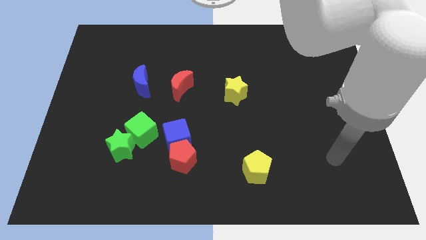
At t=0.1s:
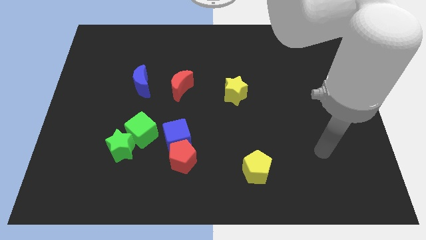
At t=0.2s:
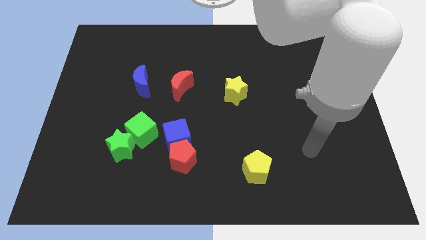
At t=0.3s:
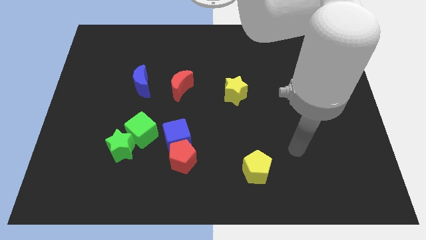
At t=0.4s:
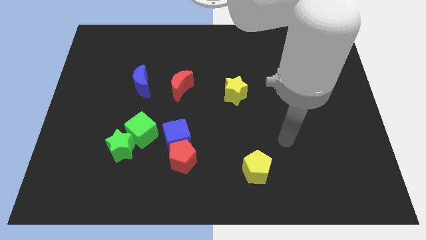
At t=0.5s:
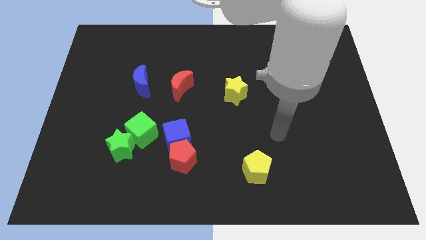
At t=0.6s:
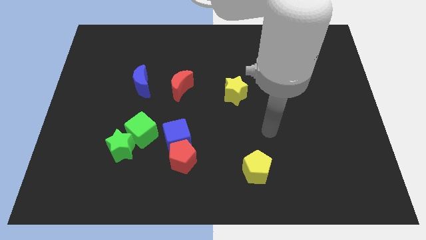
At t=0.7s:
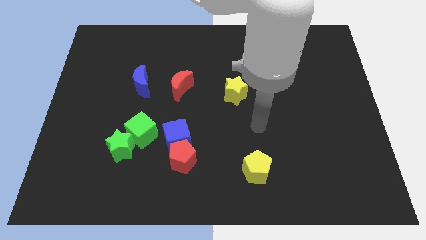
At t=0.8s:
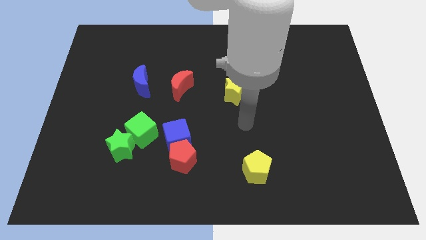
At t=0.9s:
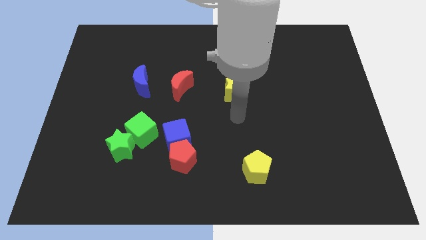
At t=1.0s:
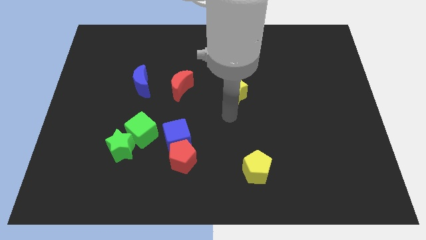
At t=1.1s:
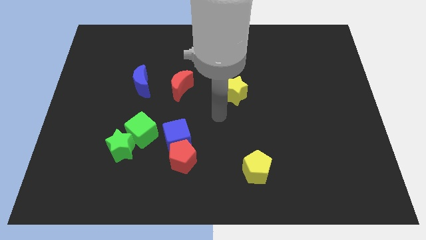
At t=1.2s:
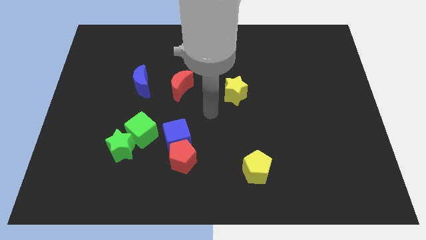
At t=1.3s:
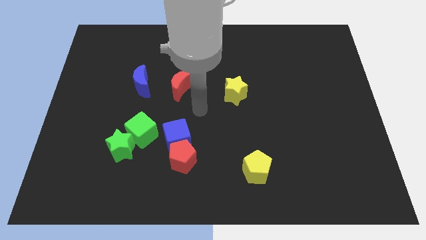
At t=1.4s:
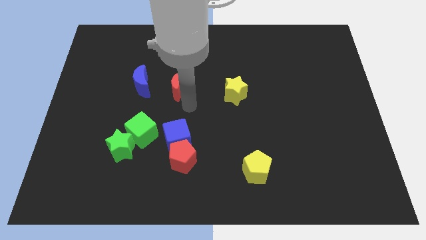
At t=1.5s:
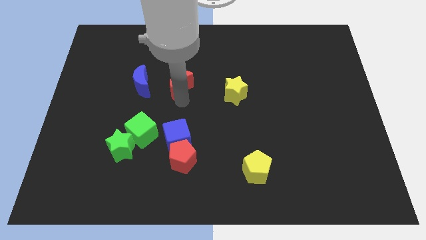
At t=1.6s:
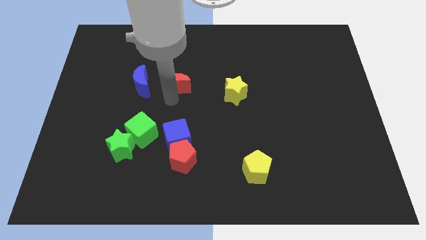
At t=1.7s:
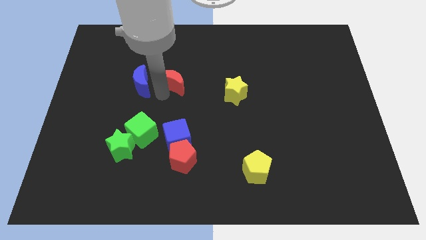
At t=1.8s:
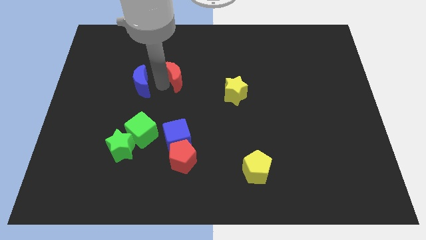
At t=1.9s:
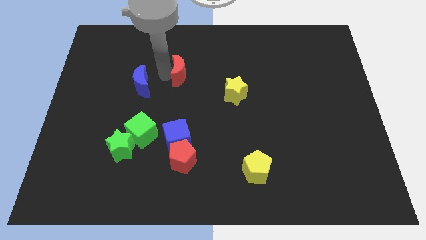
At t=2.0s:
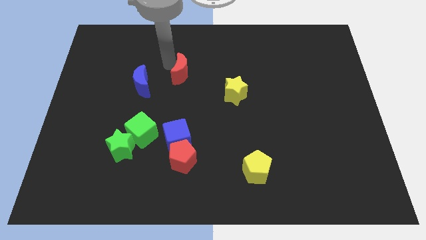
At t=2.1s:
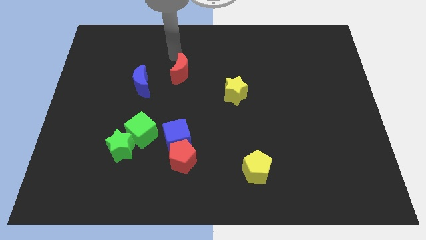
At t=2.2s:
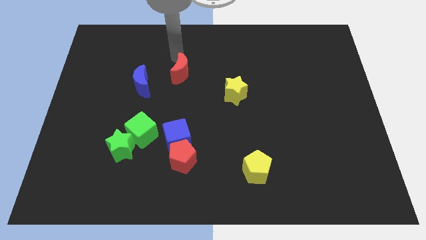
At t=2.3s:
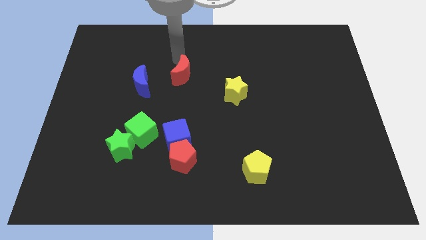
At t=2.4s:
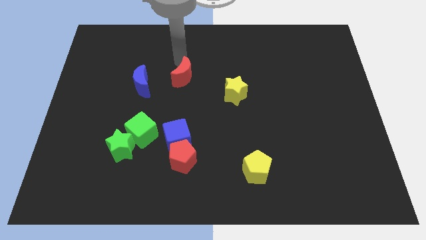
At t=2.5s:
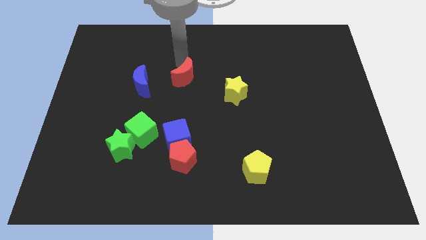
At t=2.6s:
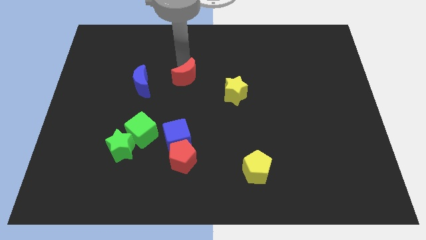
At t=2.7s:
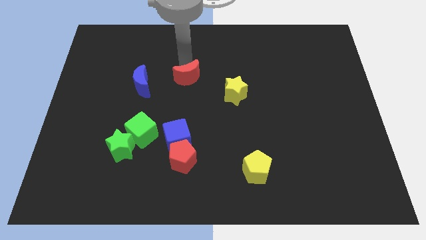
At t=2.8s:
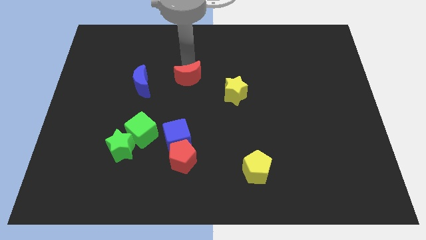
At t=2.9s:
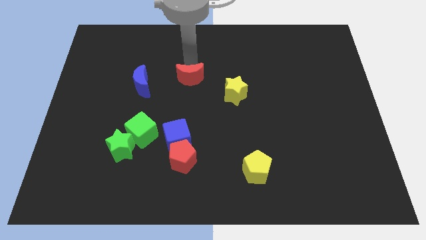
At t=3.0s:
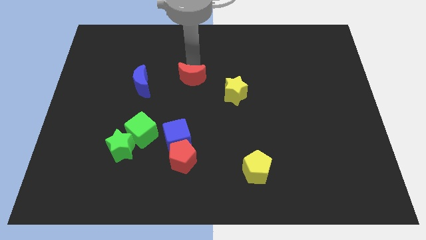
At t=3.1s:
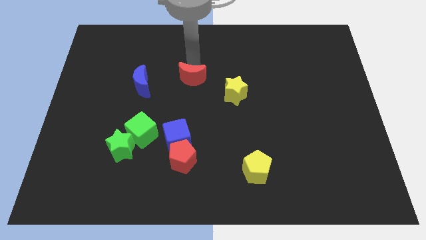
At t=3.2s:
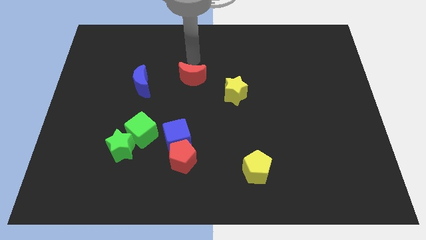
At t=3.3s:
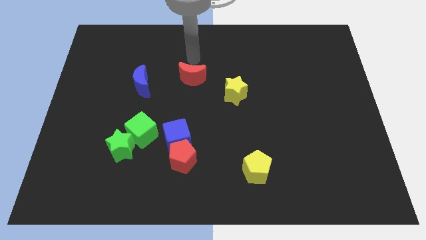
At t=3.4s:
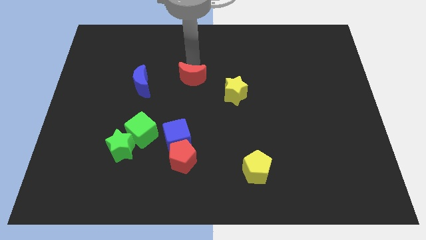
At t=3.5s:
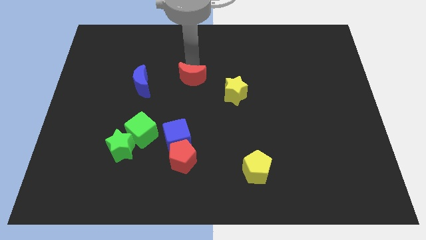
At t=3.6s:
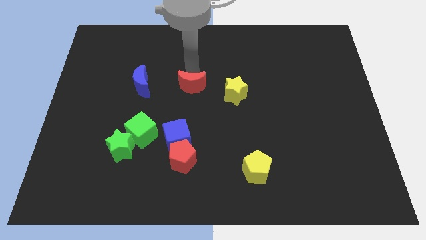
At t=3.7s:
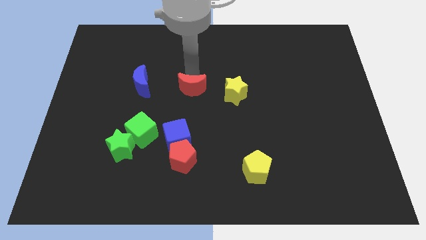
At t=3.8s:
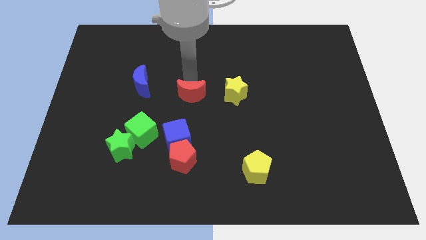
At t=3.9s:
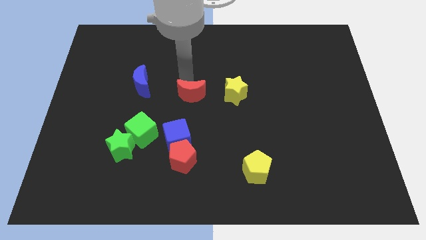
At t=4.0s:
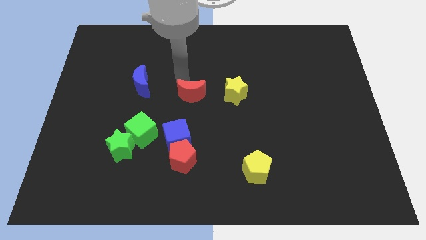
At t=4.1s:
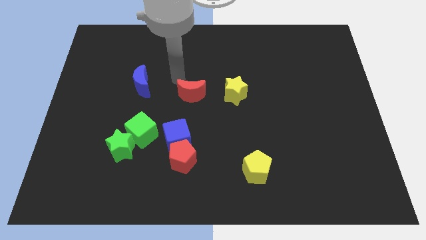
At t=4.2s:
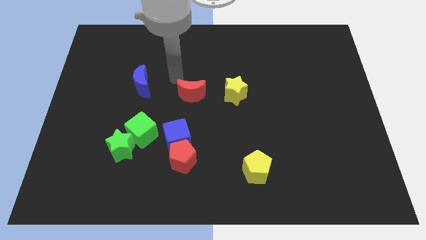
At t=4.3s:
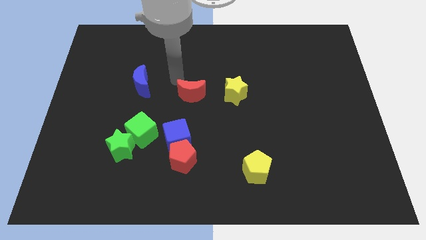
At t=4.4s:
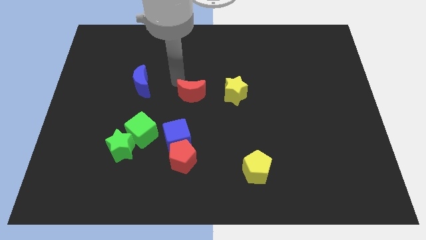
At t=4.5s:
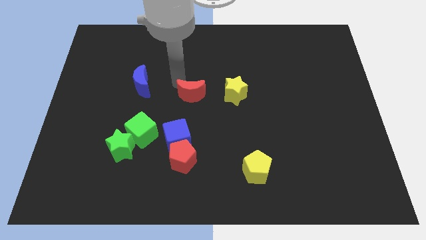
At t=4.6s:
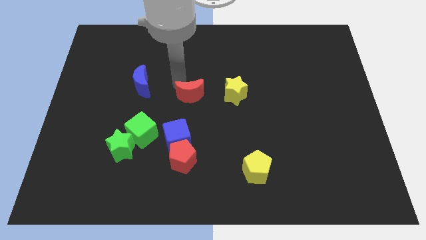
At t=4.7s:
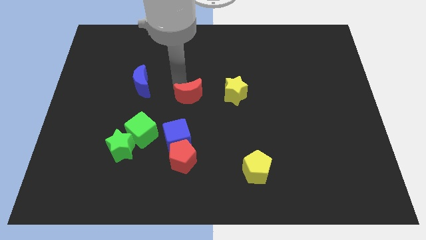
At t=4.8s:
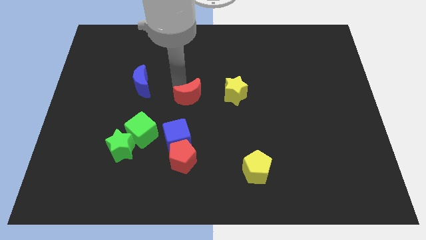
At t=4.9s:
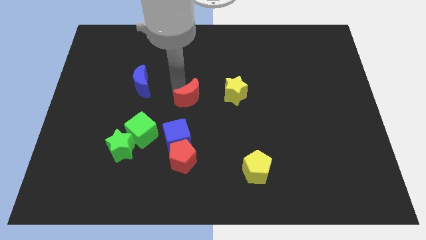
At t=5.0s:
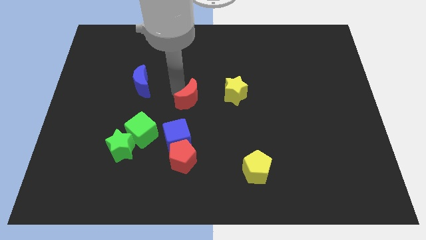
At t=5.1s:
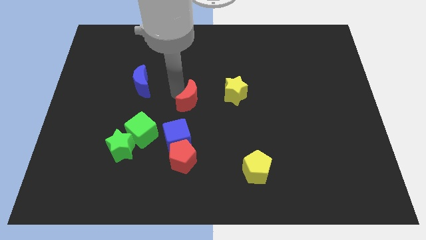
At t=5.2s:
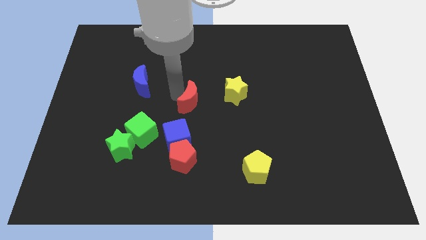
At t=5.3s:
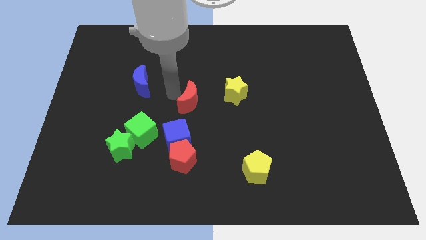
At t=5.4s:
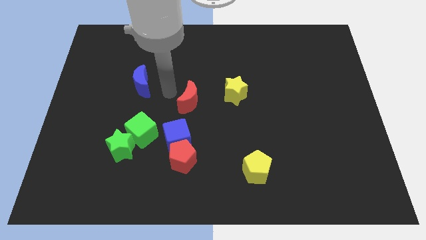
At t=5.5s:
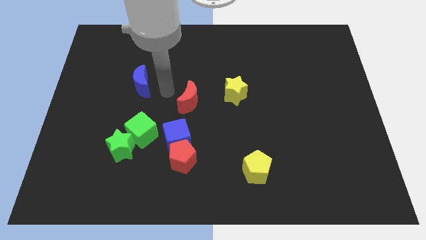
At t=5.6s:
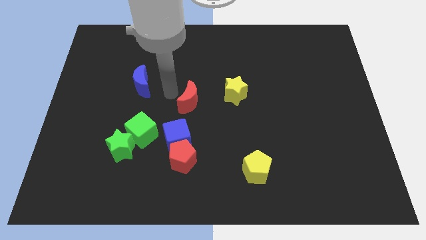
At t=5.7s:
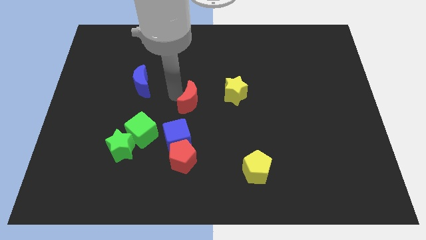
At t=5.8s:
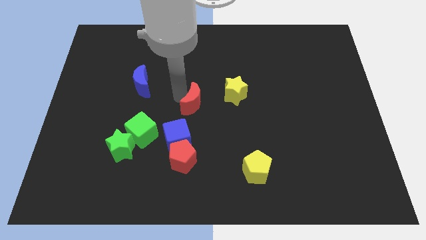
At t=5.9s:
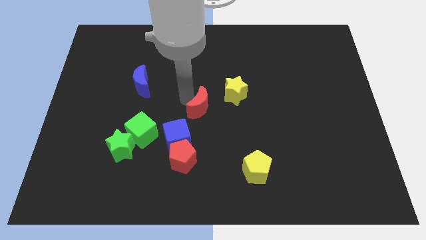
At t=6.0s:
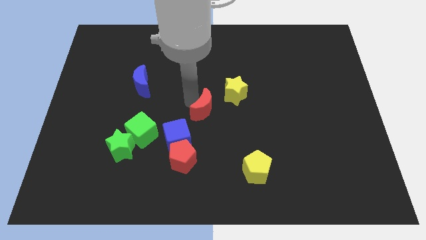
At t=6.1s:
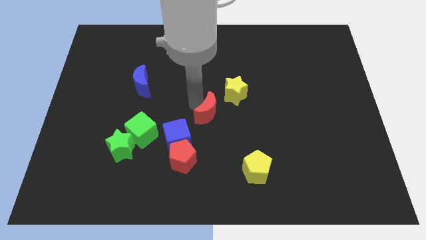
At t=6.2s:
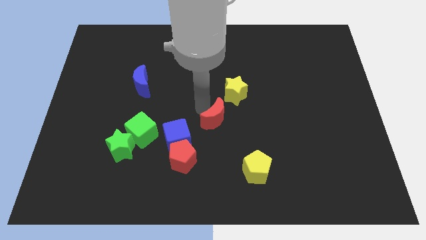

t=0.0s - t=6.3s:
move the red moon to the bottom of the yellow star

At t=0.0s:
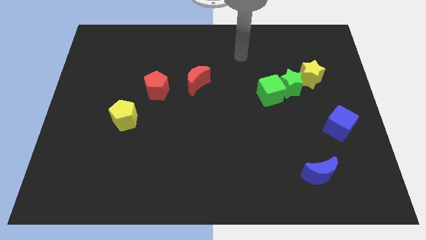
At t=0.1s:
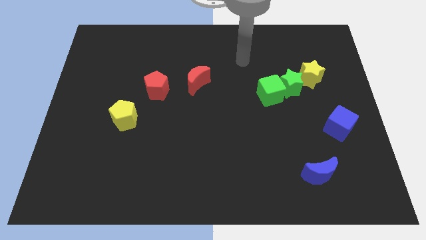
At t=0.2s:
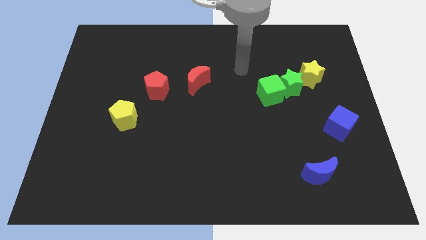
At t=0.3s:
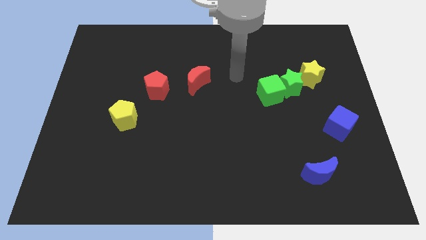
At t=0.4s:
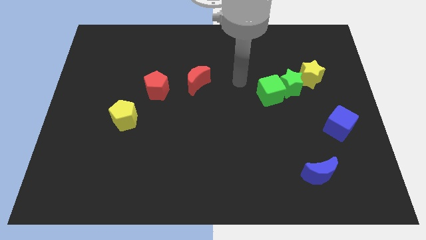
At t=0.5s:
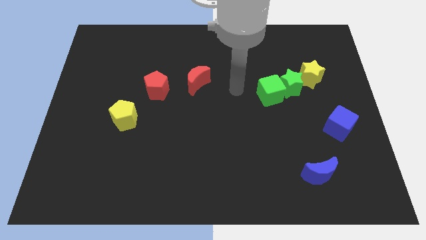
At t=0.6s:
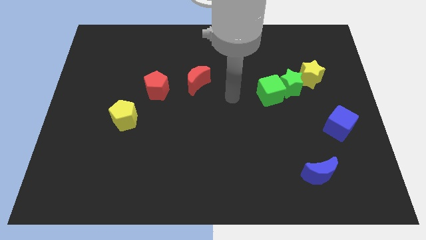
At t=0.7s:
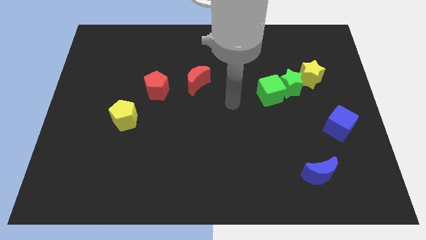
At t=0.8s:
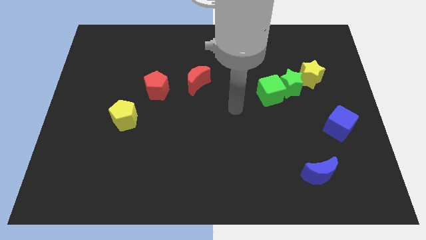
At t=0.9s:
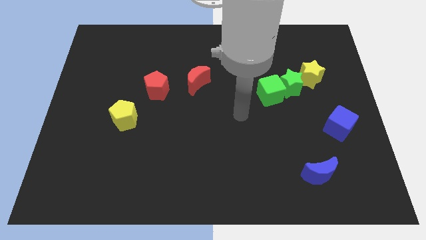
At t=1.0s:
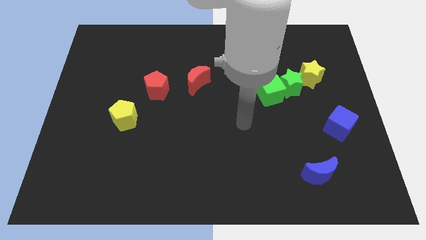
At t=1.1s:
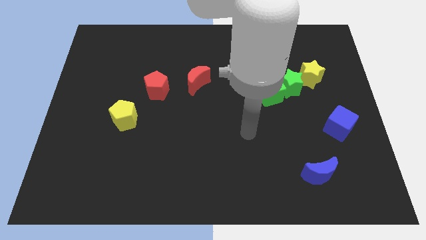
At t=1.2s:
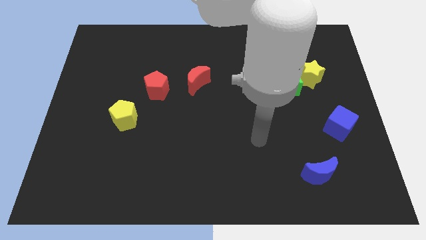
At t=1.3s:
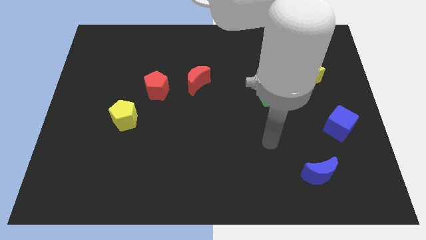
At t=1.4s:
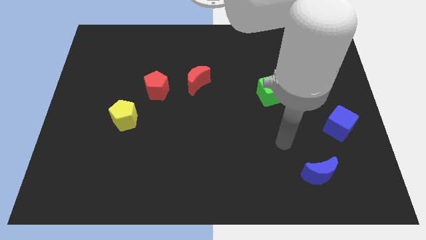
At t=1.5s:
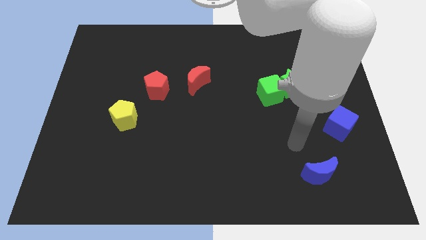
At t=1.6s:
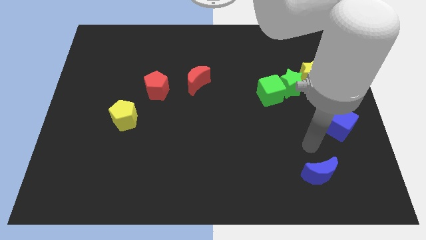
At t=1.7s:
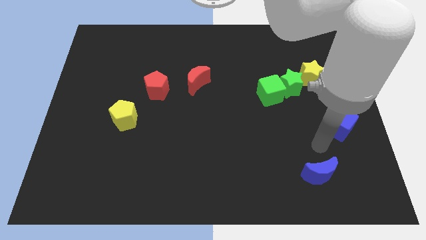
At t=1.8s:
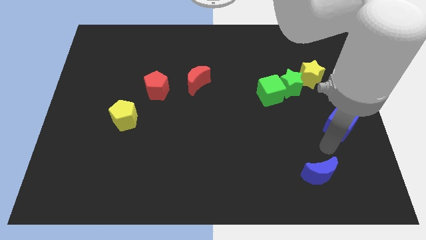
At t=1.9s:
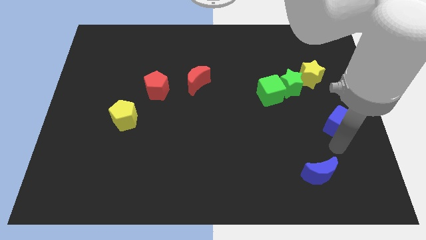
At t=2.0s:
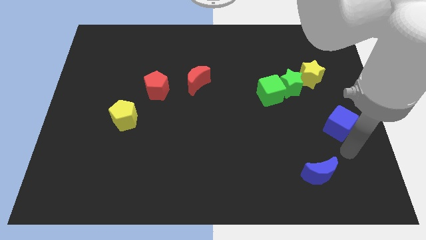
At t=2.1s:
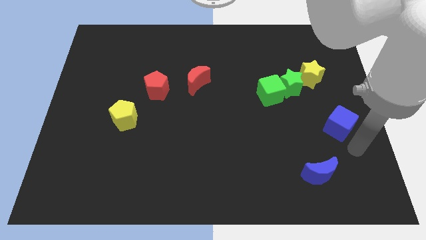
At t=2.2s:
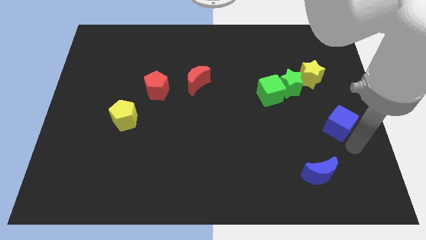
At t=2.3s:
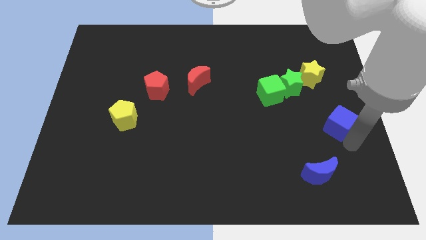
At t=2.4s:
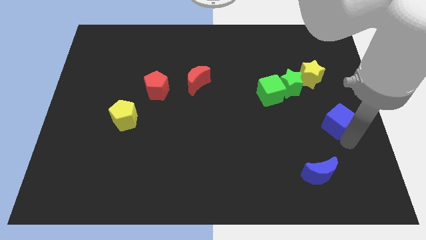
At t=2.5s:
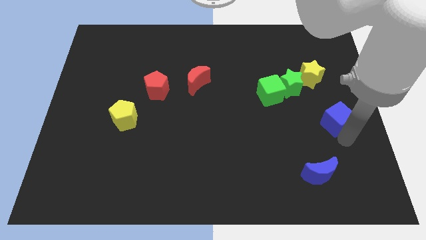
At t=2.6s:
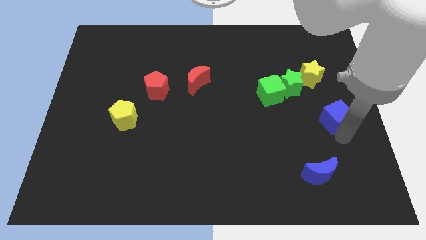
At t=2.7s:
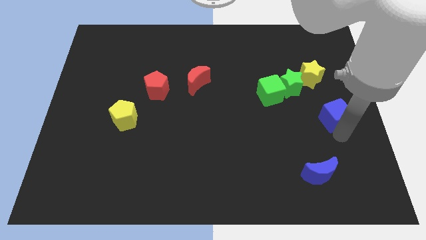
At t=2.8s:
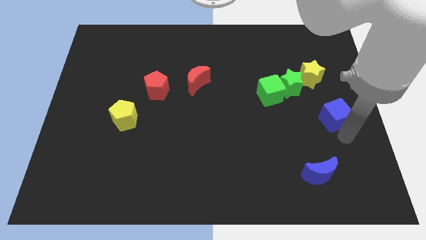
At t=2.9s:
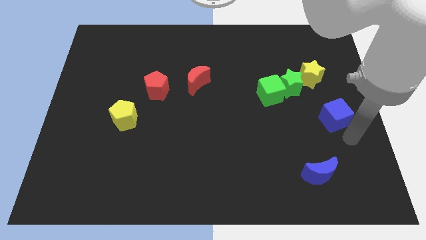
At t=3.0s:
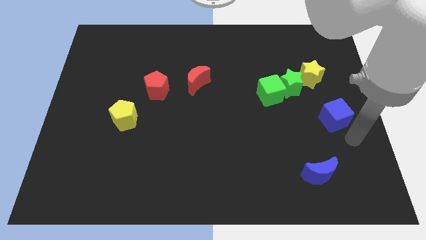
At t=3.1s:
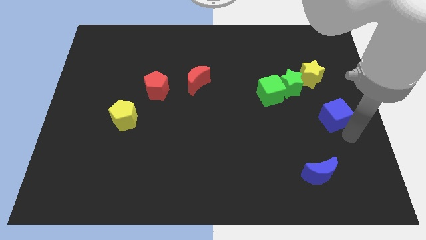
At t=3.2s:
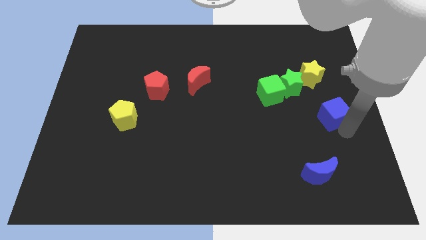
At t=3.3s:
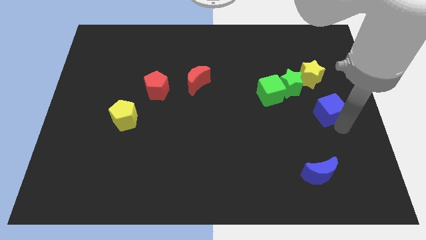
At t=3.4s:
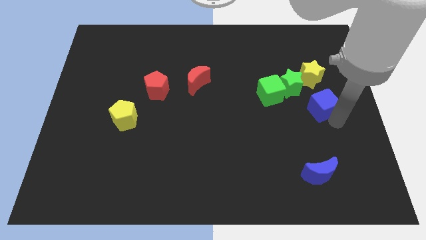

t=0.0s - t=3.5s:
put the blue cube to the right side of the green cube
